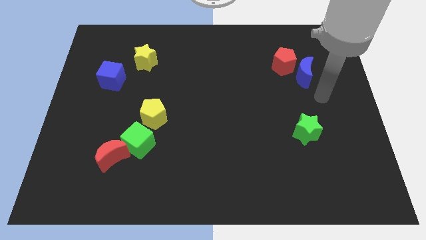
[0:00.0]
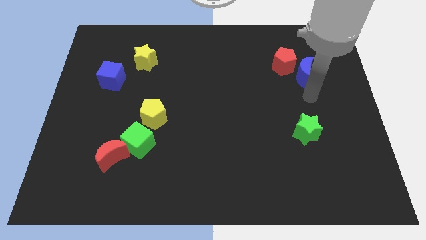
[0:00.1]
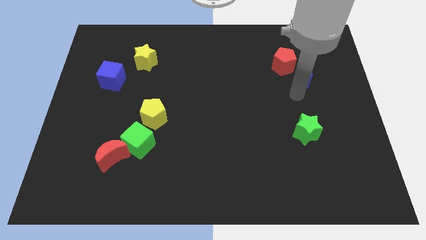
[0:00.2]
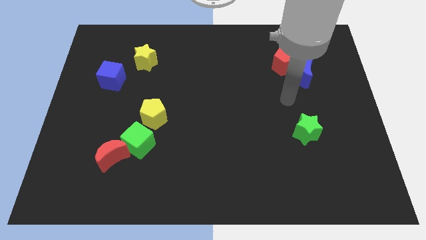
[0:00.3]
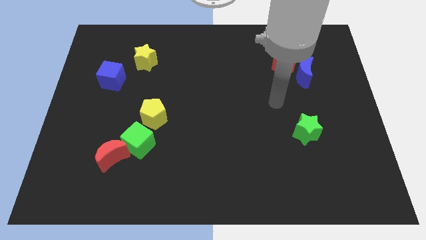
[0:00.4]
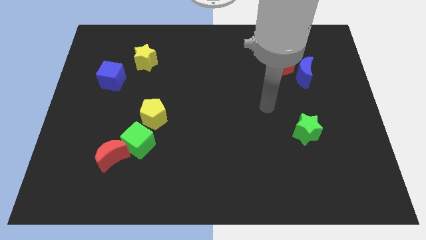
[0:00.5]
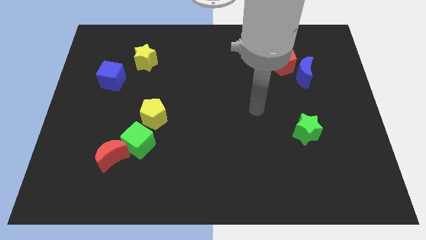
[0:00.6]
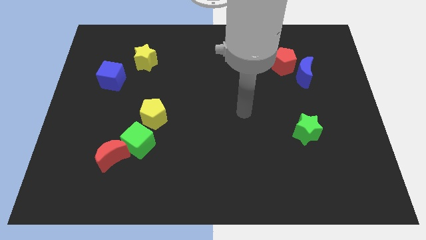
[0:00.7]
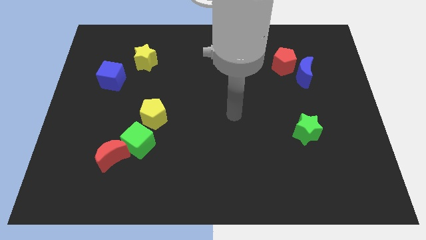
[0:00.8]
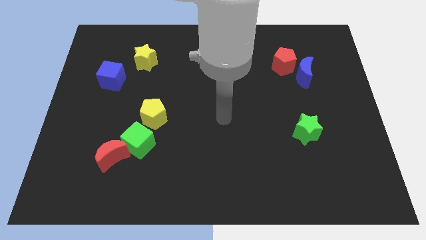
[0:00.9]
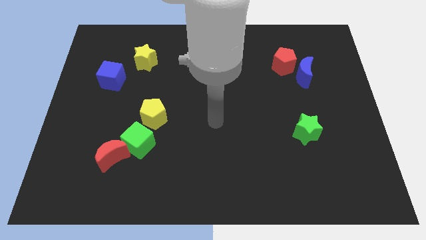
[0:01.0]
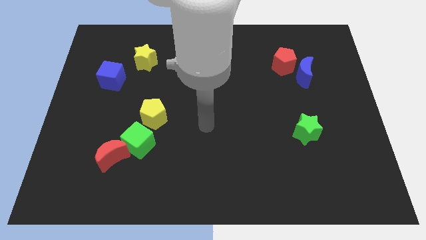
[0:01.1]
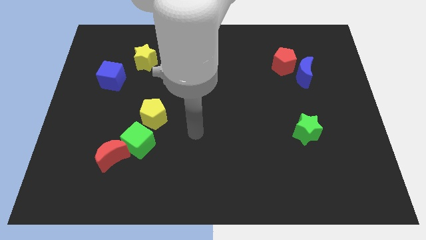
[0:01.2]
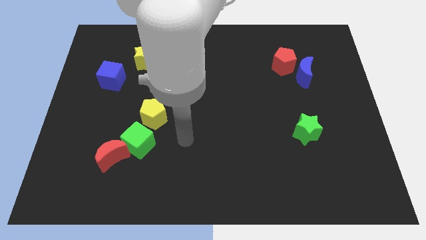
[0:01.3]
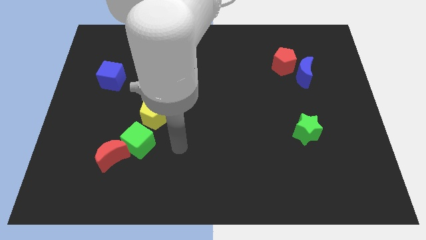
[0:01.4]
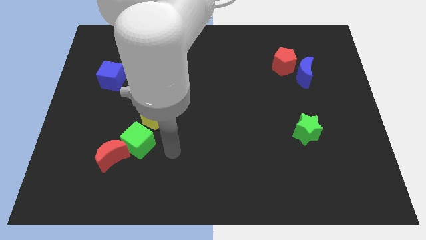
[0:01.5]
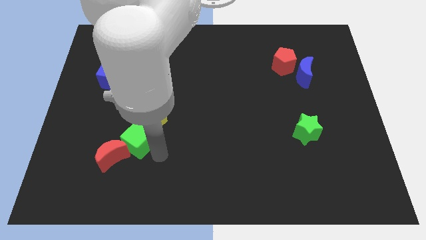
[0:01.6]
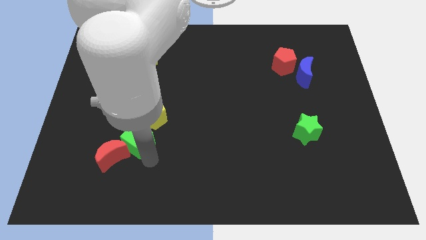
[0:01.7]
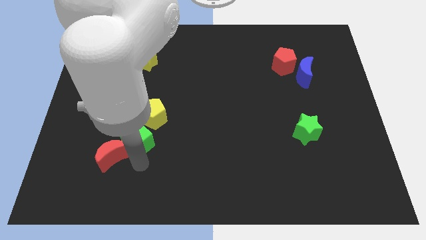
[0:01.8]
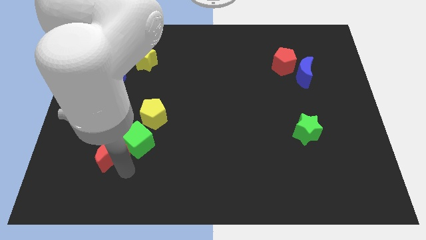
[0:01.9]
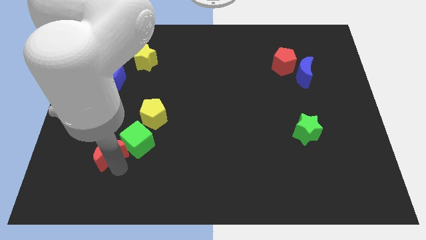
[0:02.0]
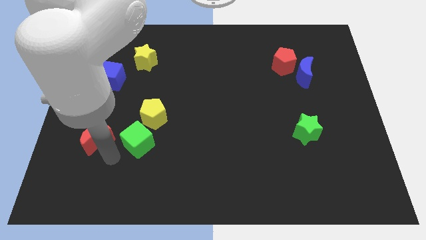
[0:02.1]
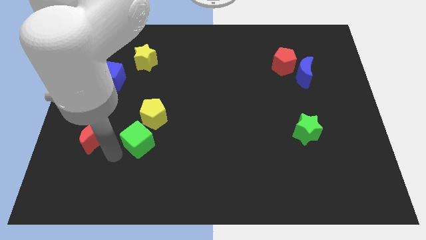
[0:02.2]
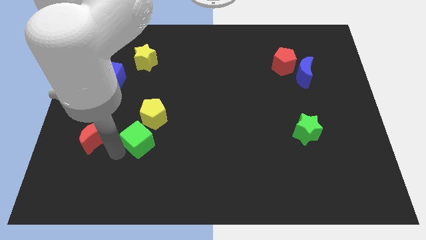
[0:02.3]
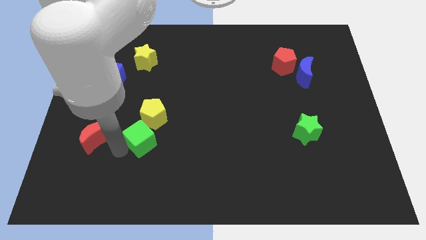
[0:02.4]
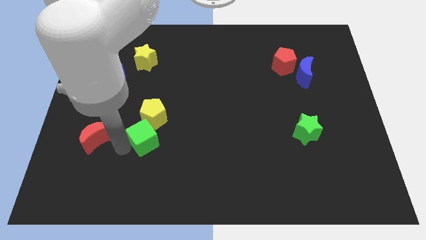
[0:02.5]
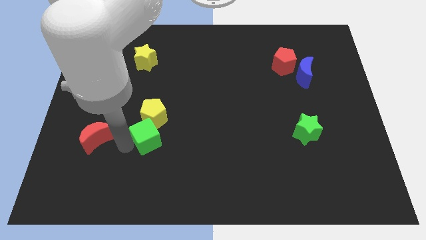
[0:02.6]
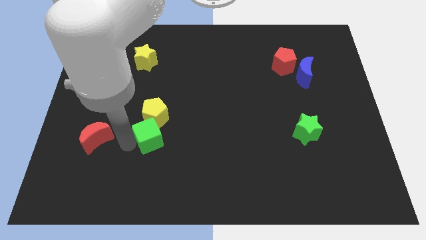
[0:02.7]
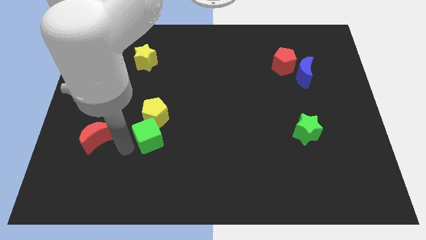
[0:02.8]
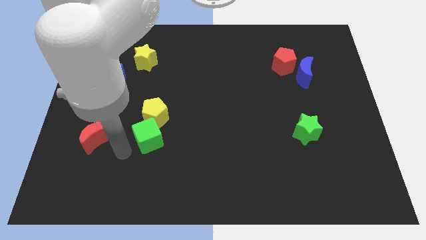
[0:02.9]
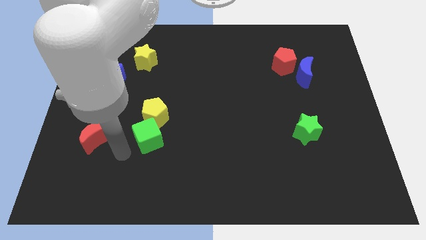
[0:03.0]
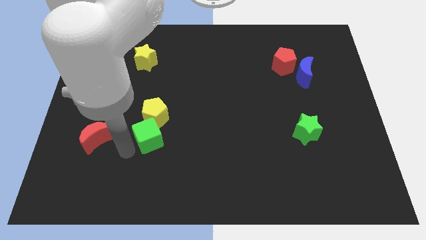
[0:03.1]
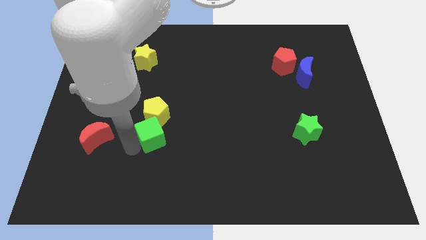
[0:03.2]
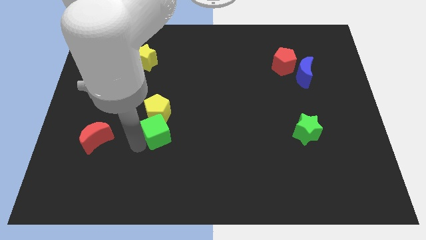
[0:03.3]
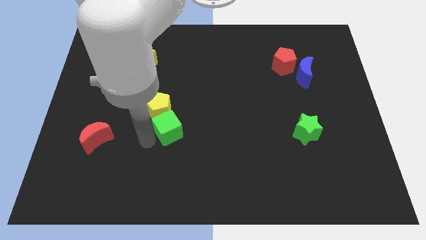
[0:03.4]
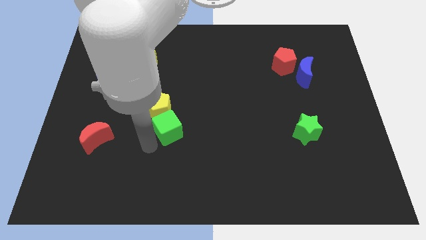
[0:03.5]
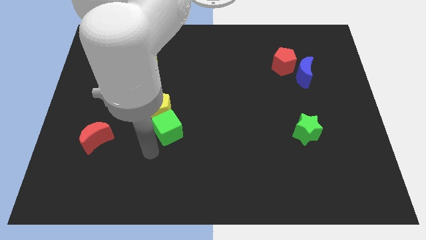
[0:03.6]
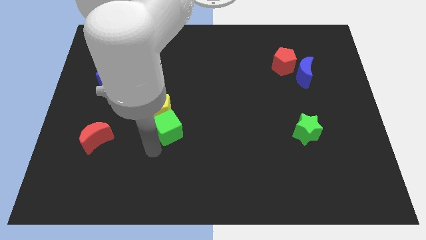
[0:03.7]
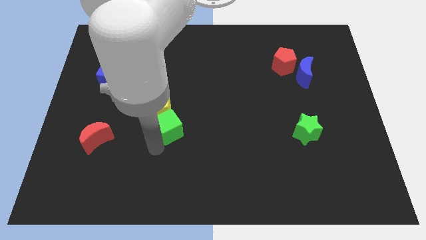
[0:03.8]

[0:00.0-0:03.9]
move the green cube a little bit upwards and to the right diagonally

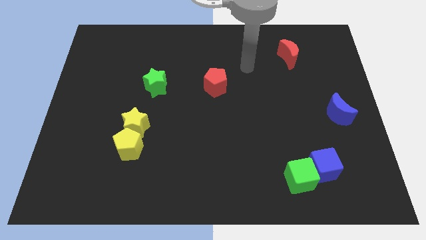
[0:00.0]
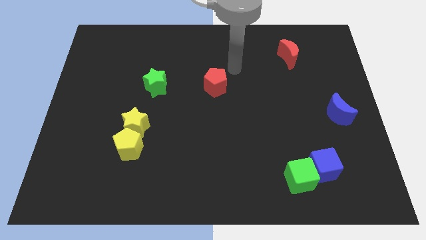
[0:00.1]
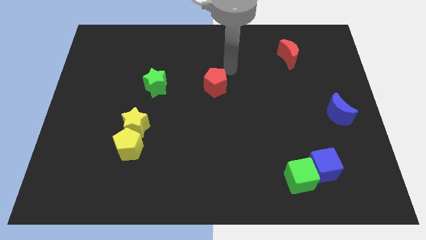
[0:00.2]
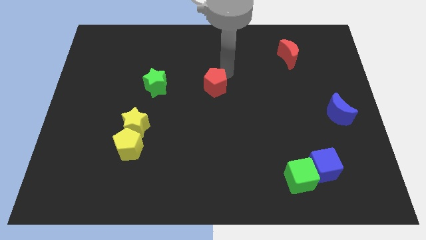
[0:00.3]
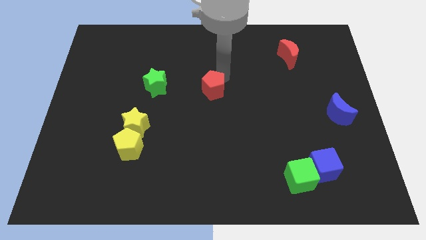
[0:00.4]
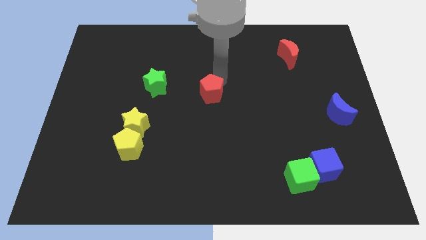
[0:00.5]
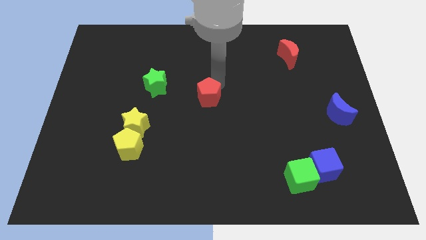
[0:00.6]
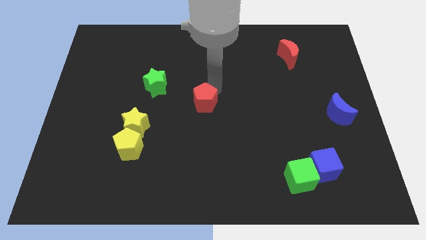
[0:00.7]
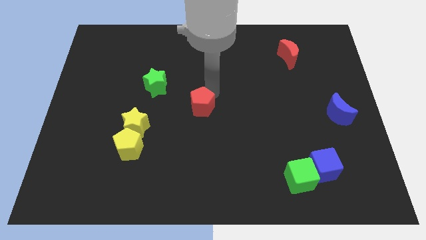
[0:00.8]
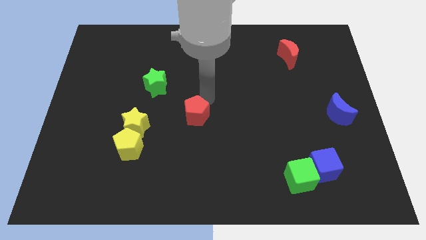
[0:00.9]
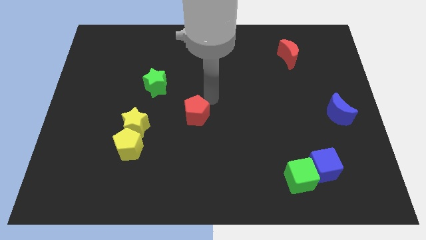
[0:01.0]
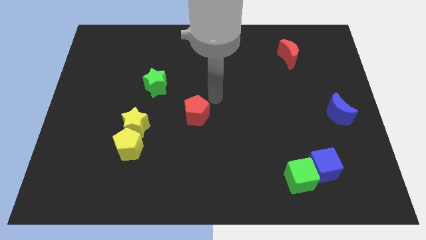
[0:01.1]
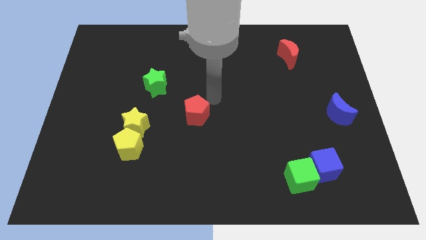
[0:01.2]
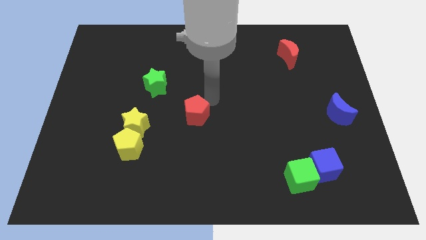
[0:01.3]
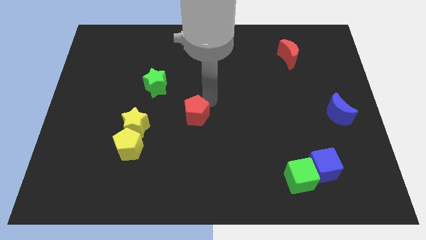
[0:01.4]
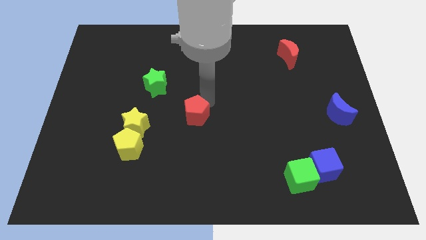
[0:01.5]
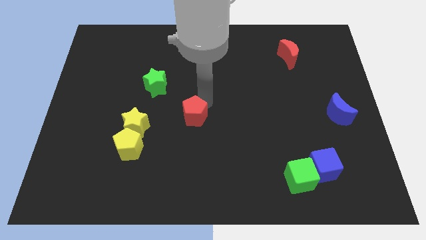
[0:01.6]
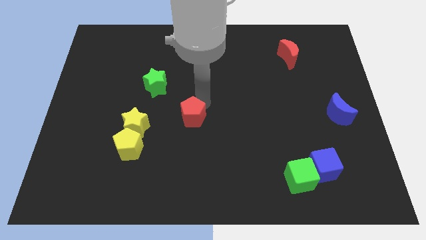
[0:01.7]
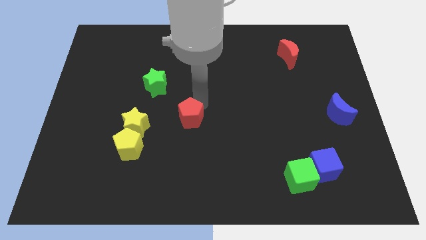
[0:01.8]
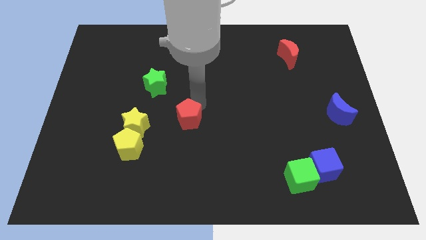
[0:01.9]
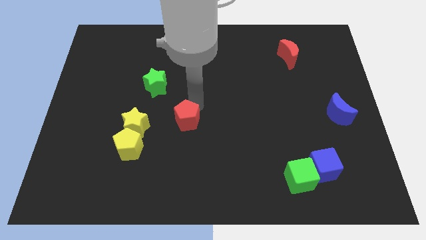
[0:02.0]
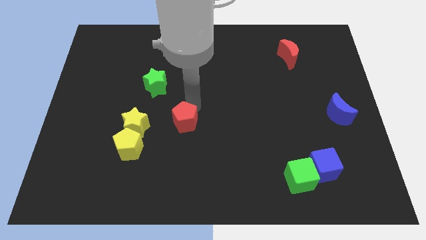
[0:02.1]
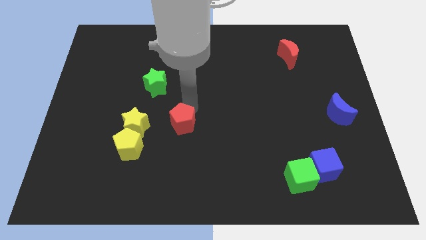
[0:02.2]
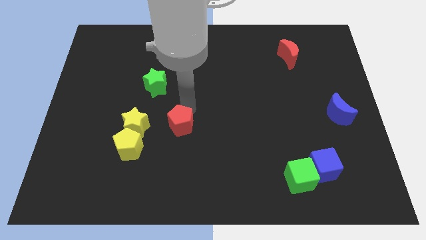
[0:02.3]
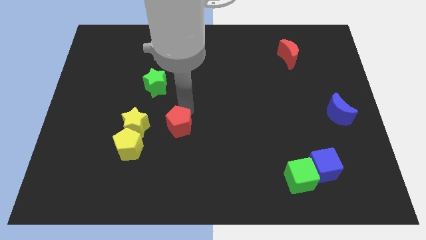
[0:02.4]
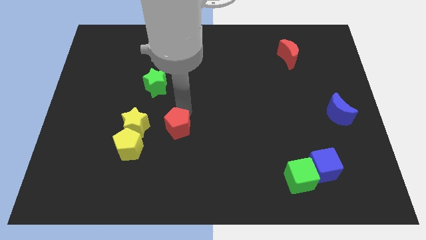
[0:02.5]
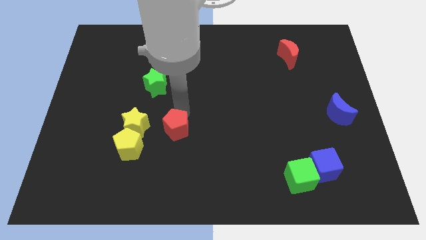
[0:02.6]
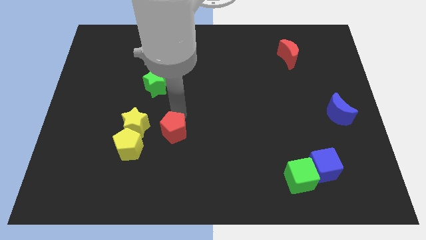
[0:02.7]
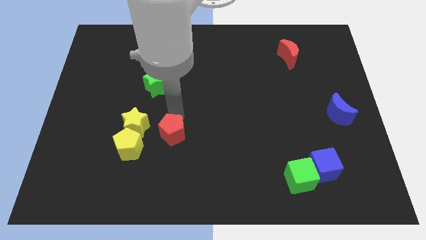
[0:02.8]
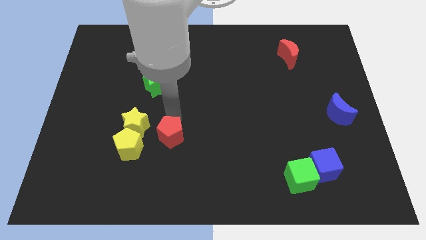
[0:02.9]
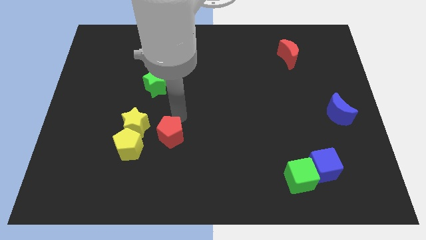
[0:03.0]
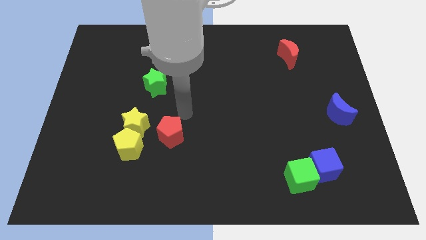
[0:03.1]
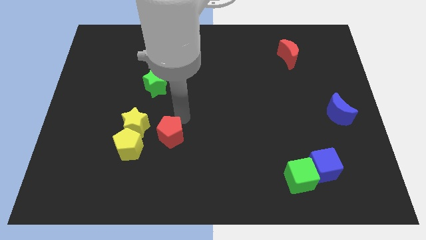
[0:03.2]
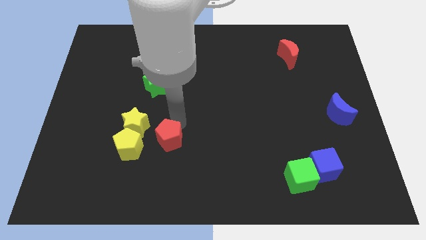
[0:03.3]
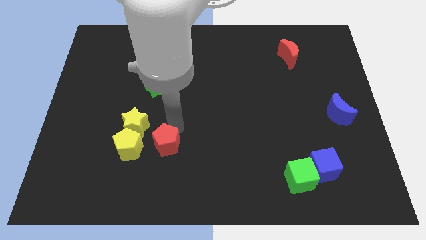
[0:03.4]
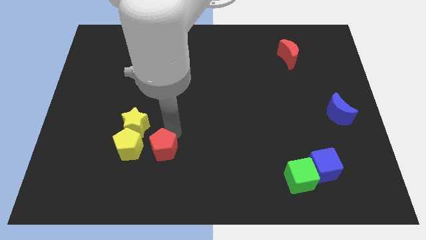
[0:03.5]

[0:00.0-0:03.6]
push the red pentagon down and then left

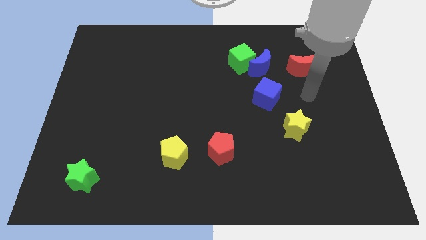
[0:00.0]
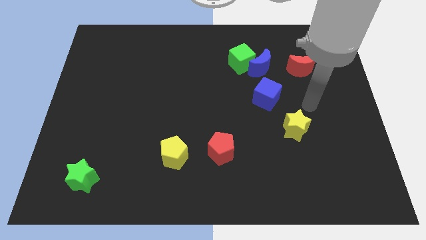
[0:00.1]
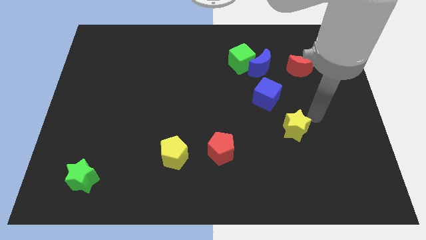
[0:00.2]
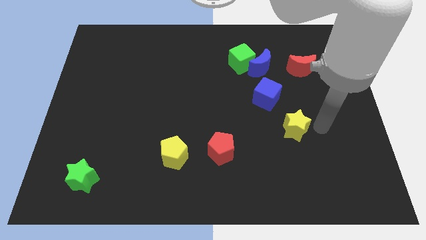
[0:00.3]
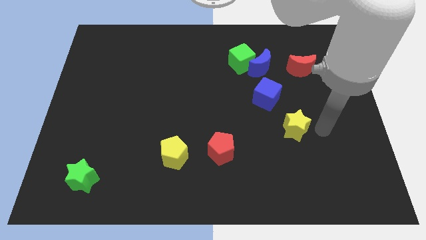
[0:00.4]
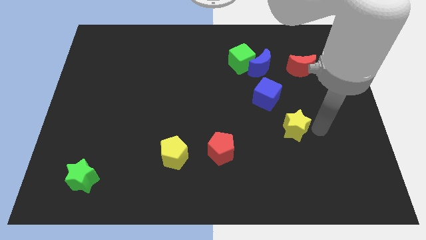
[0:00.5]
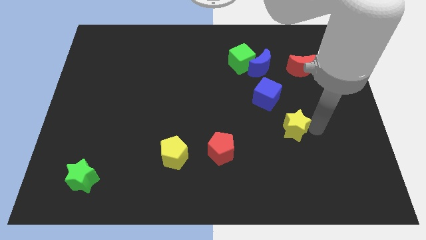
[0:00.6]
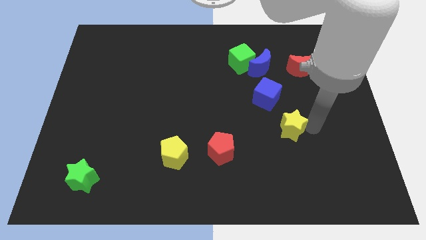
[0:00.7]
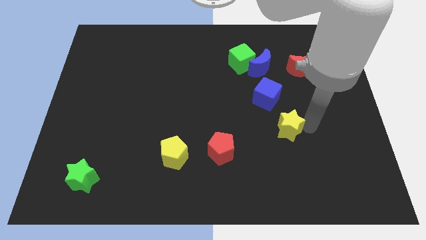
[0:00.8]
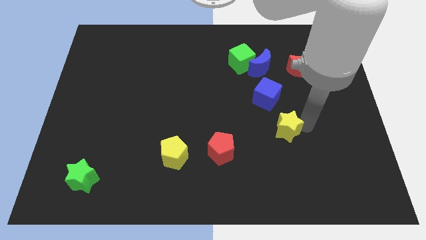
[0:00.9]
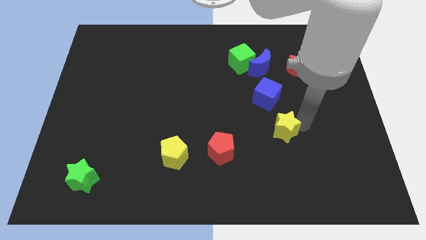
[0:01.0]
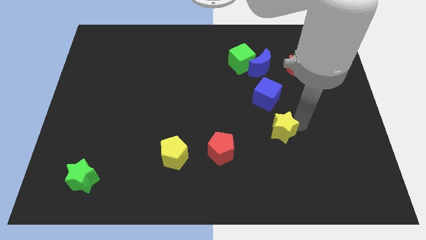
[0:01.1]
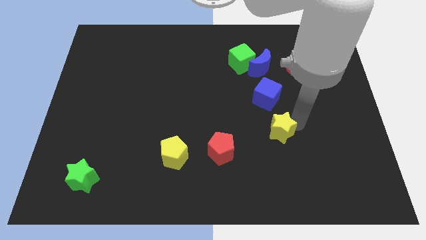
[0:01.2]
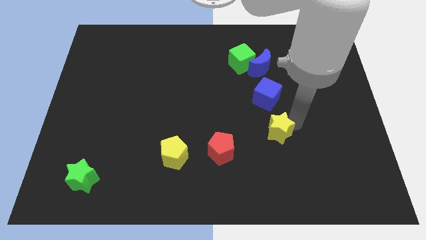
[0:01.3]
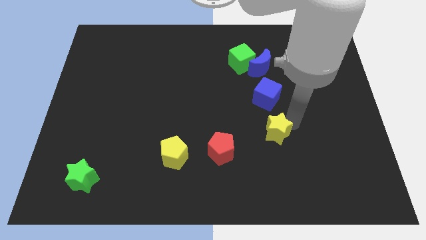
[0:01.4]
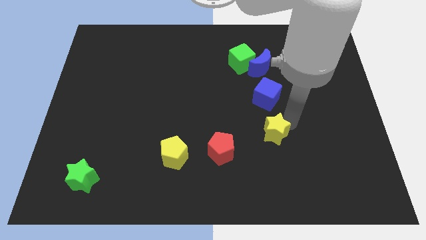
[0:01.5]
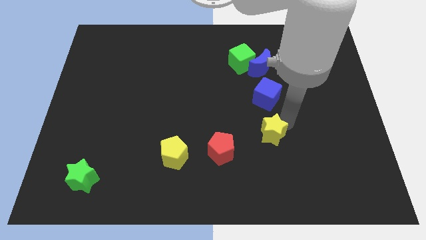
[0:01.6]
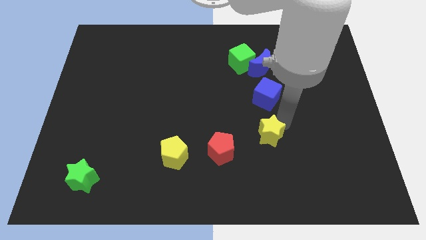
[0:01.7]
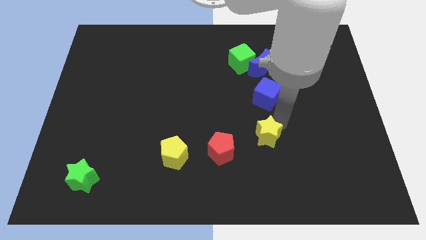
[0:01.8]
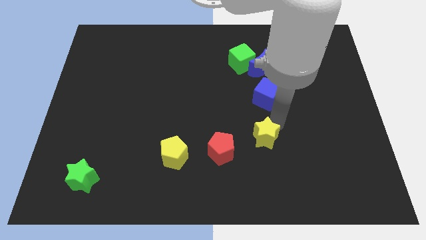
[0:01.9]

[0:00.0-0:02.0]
move the yellow star somewhat left
